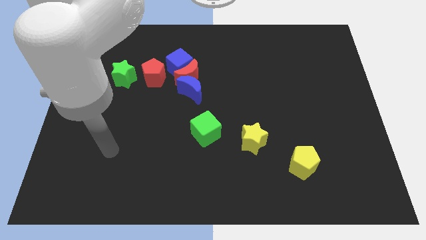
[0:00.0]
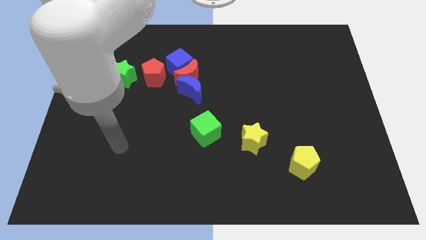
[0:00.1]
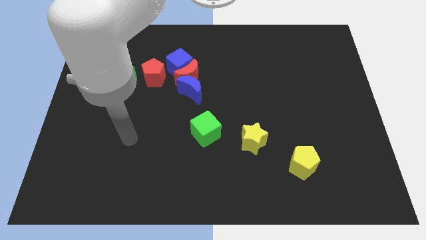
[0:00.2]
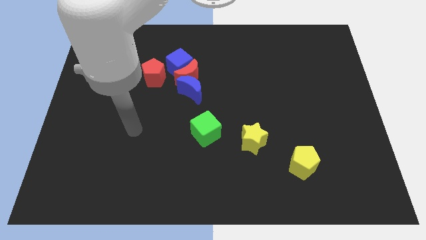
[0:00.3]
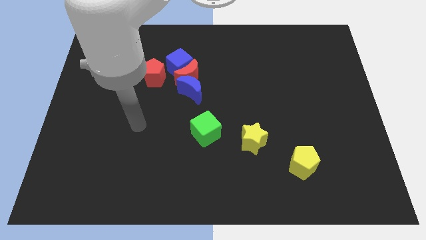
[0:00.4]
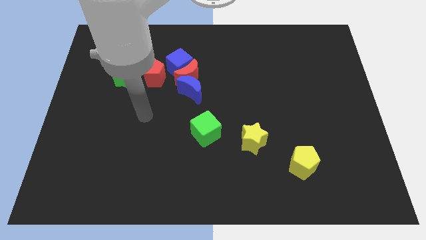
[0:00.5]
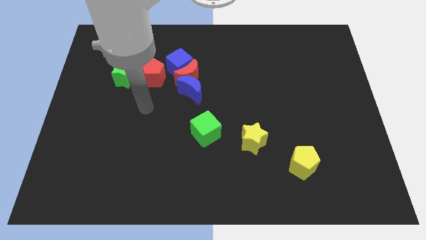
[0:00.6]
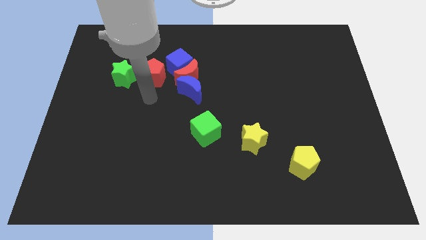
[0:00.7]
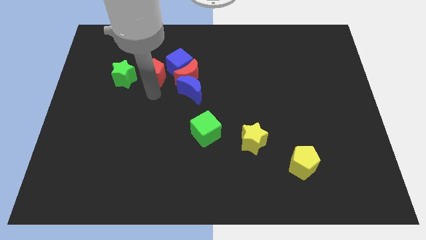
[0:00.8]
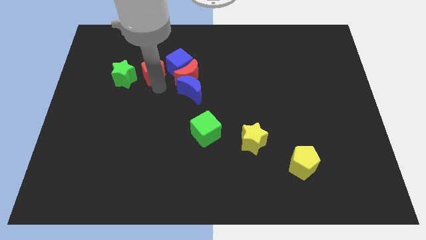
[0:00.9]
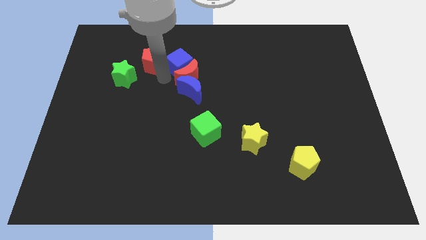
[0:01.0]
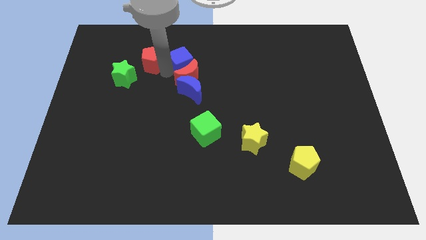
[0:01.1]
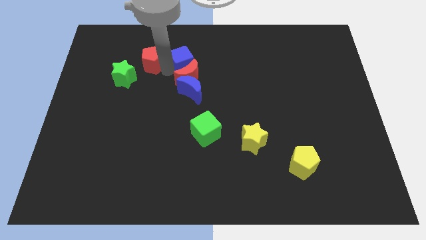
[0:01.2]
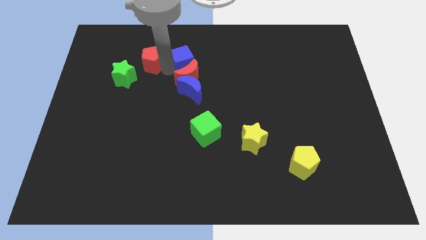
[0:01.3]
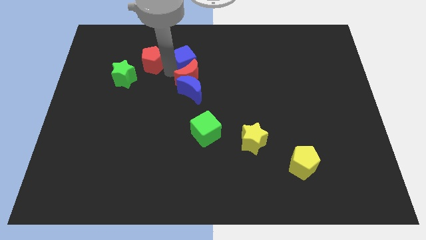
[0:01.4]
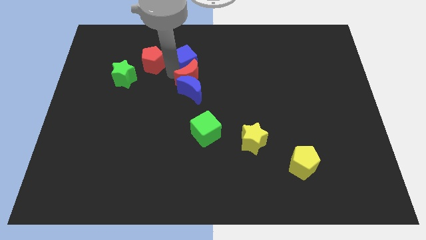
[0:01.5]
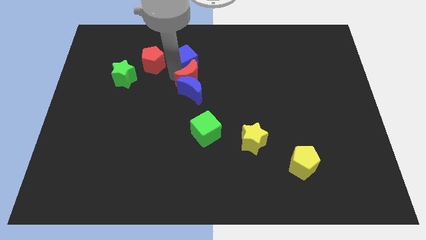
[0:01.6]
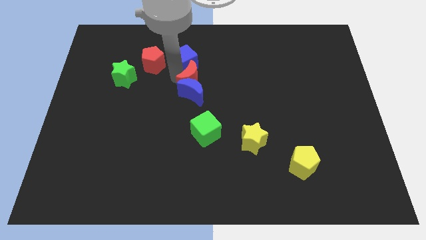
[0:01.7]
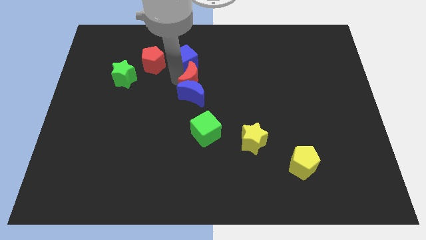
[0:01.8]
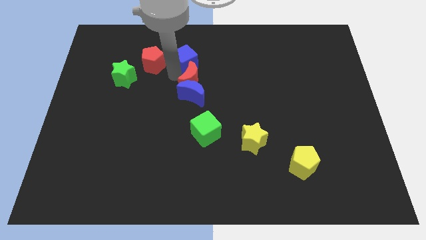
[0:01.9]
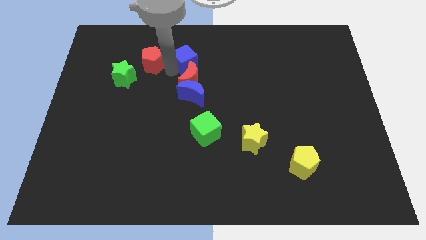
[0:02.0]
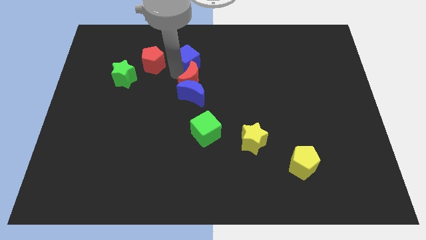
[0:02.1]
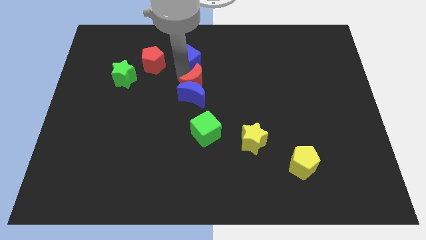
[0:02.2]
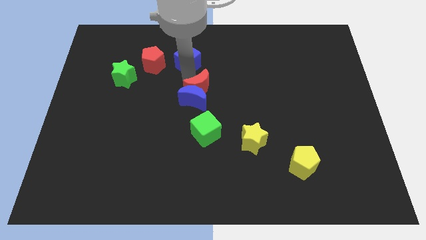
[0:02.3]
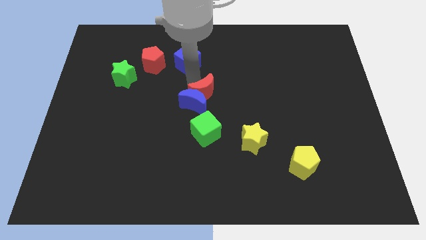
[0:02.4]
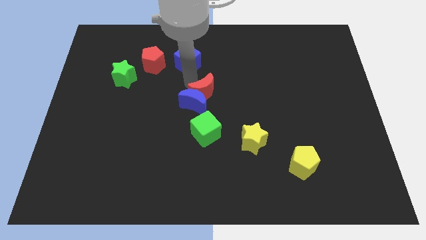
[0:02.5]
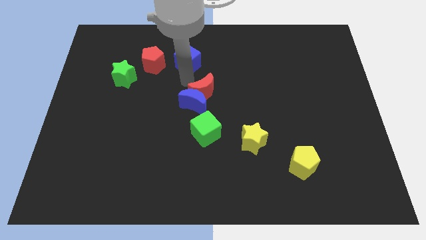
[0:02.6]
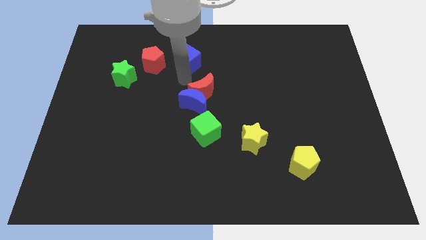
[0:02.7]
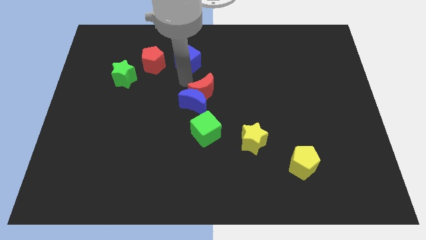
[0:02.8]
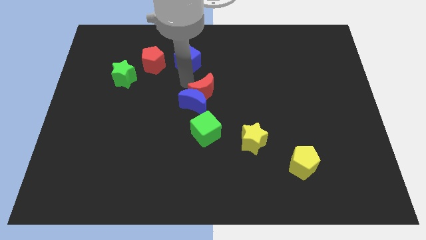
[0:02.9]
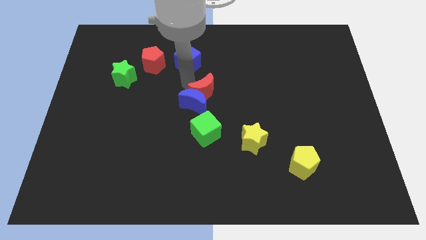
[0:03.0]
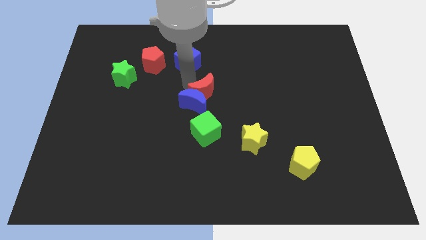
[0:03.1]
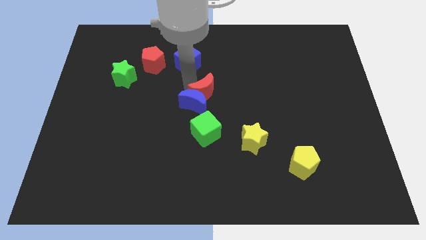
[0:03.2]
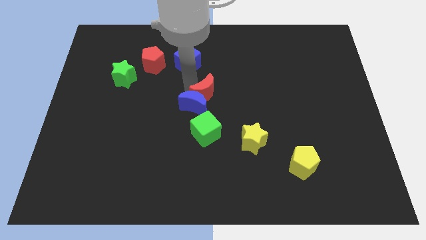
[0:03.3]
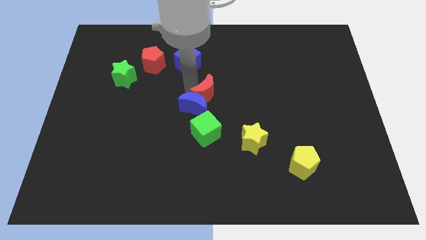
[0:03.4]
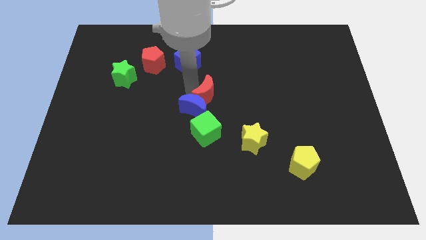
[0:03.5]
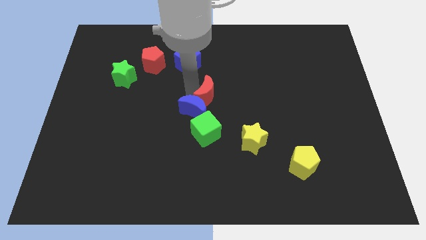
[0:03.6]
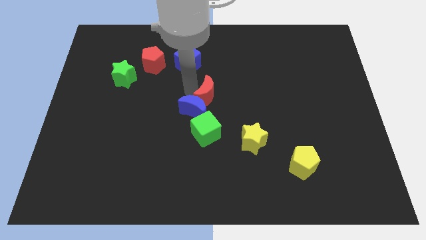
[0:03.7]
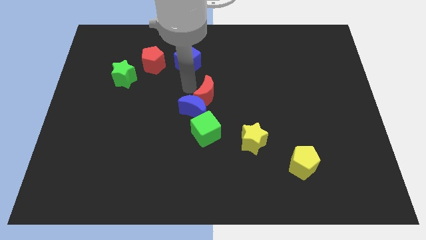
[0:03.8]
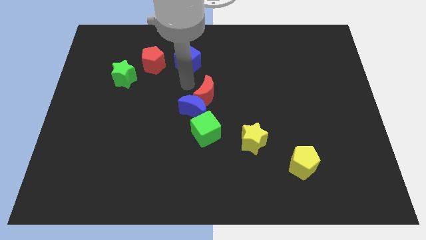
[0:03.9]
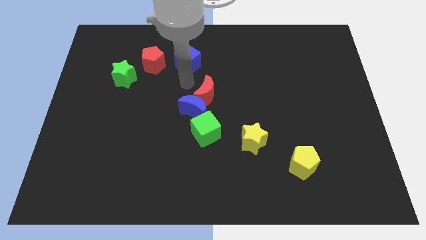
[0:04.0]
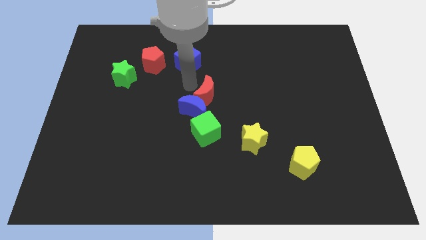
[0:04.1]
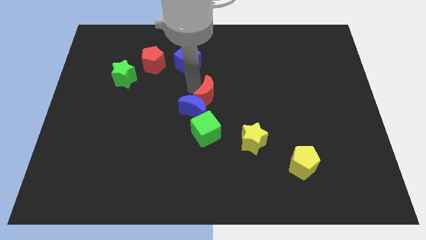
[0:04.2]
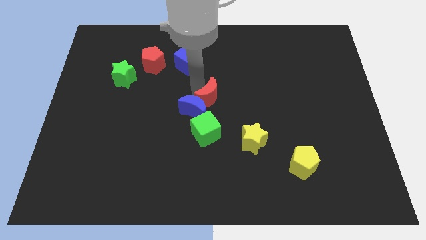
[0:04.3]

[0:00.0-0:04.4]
move the red moon away from the group of blocks

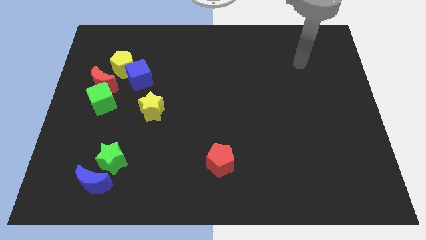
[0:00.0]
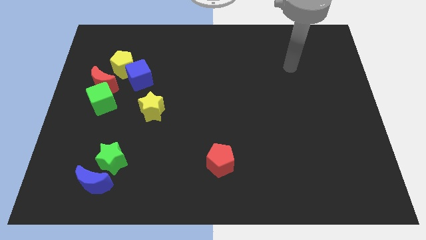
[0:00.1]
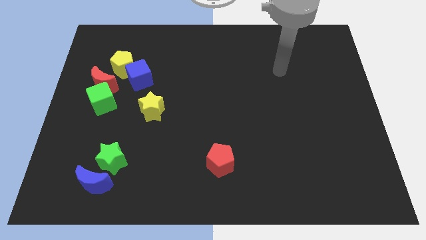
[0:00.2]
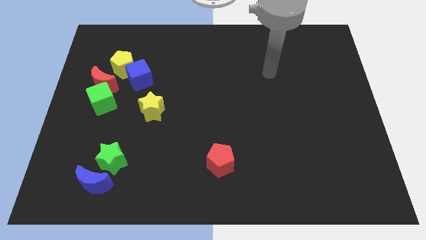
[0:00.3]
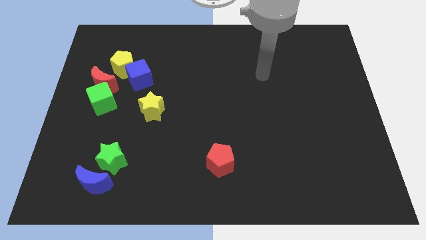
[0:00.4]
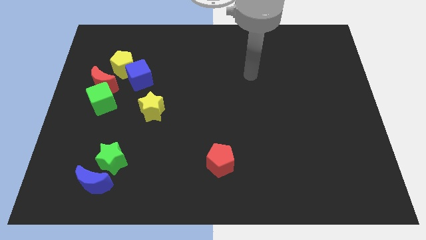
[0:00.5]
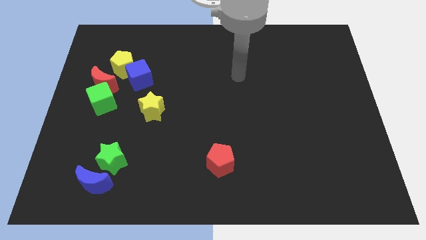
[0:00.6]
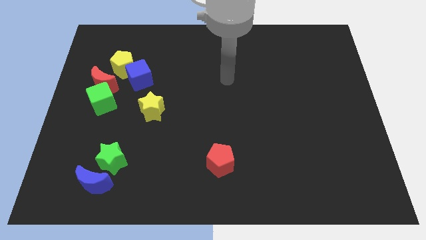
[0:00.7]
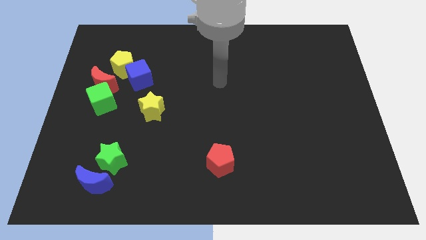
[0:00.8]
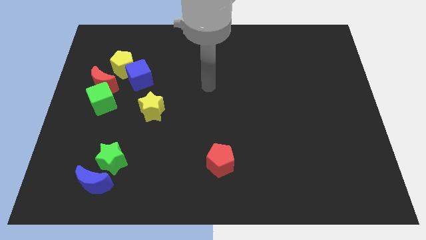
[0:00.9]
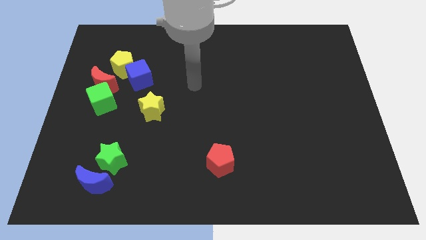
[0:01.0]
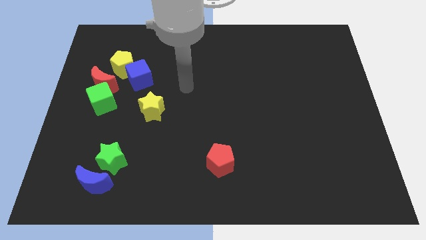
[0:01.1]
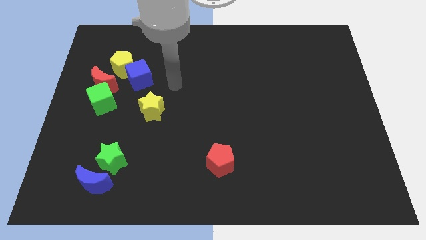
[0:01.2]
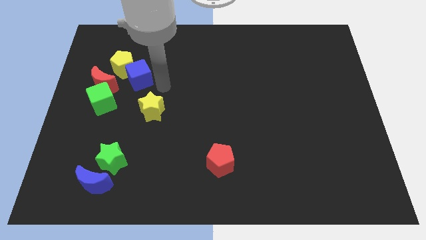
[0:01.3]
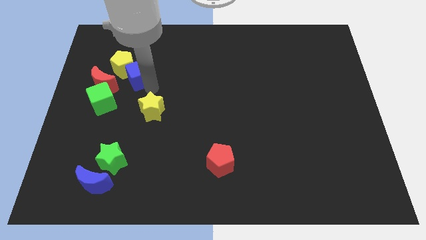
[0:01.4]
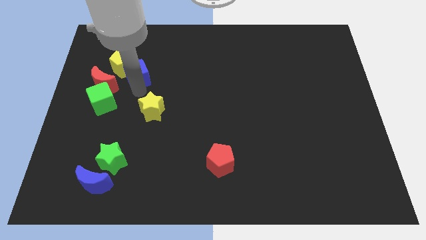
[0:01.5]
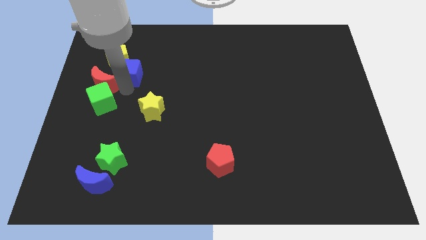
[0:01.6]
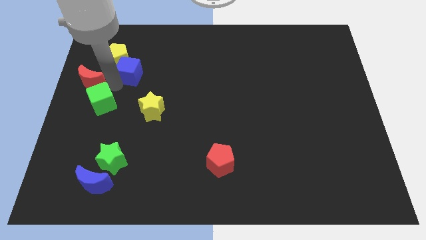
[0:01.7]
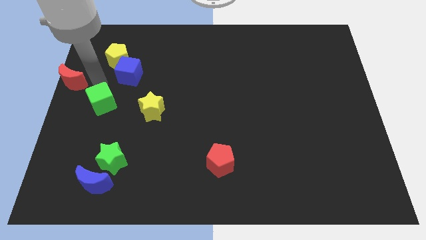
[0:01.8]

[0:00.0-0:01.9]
pull the green cube apart from the red moon

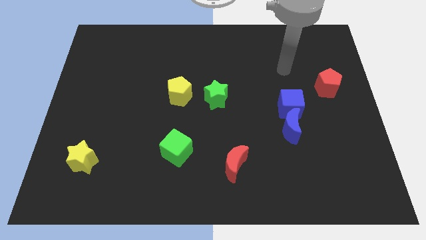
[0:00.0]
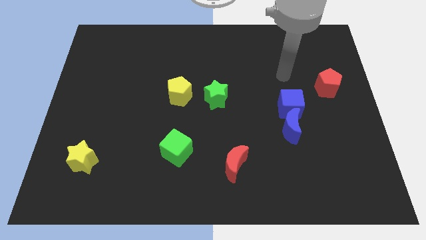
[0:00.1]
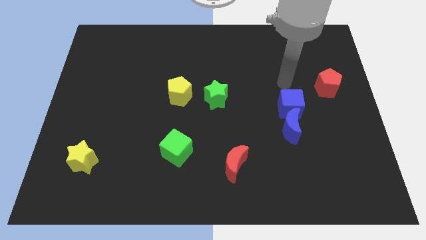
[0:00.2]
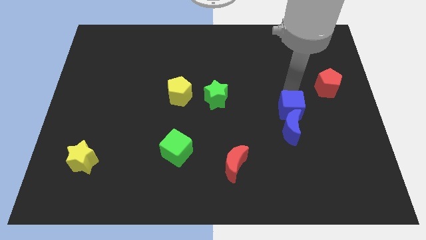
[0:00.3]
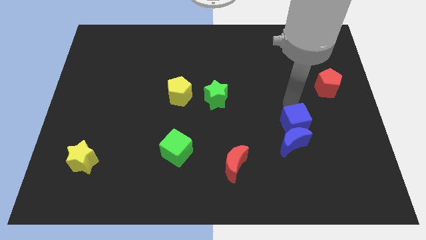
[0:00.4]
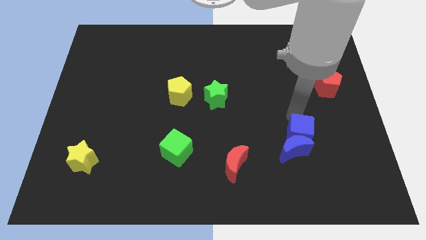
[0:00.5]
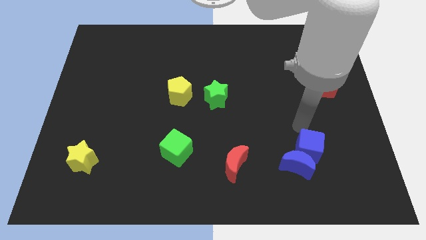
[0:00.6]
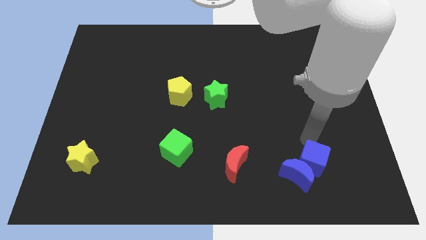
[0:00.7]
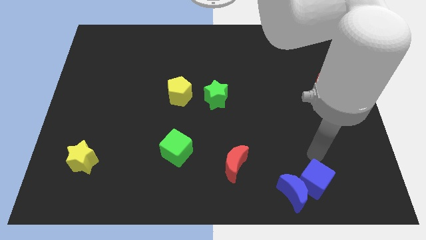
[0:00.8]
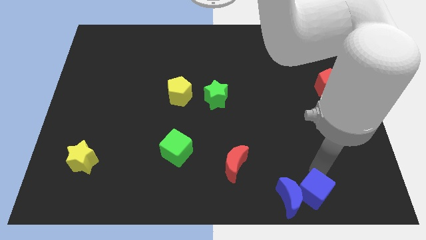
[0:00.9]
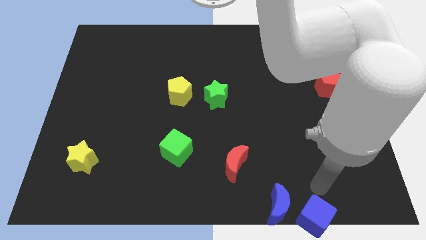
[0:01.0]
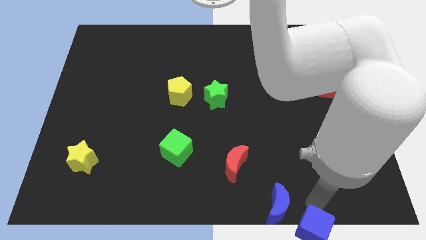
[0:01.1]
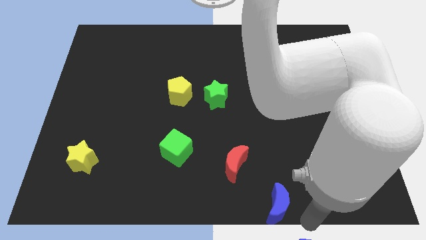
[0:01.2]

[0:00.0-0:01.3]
pull the blue moon apart from the blue cube

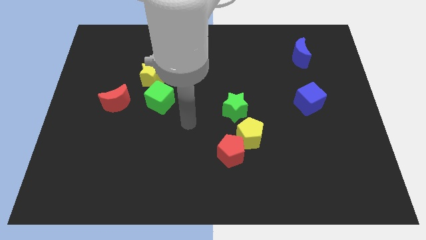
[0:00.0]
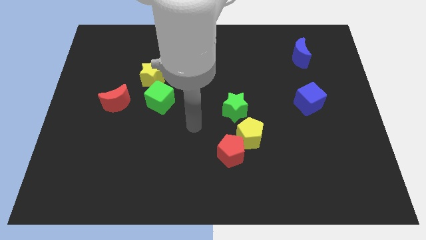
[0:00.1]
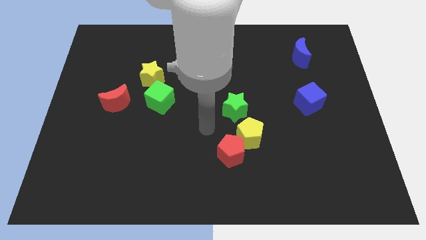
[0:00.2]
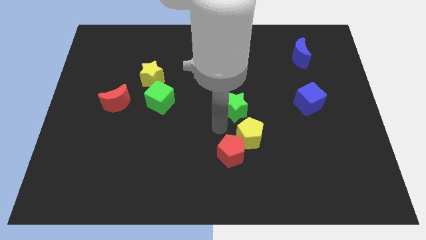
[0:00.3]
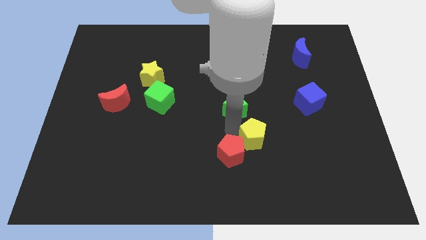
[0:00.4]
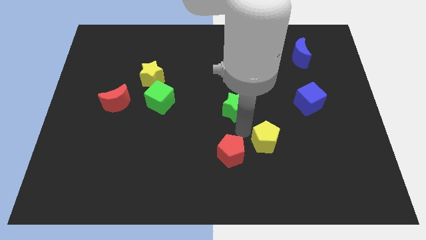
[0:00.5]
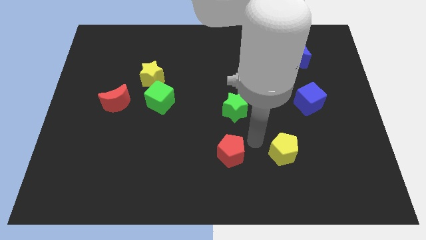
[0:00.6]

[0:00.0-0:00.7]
pull the red pentagon apart from the yellow pentagon

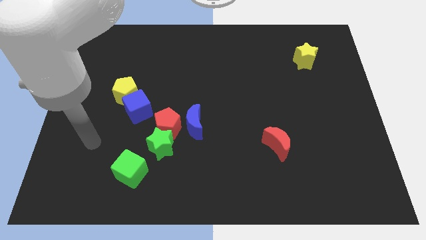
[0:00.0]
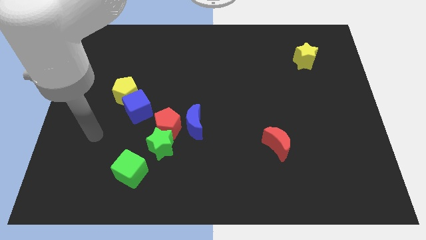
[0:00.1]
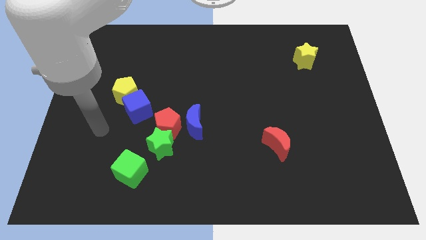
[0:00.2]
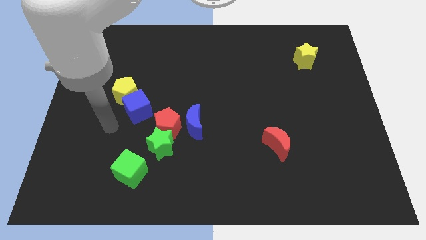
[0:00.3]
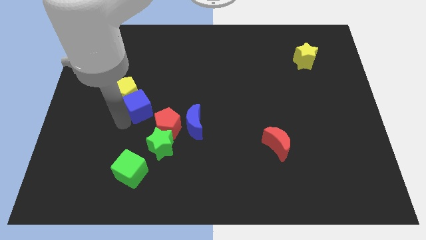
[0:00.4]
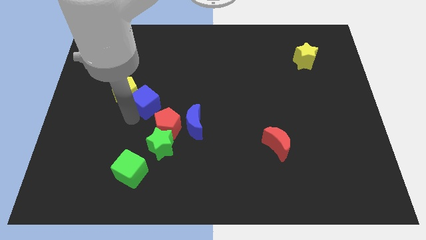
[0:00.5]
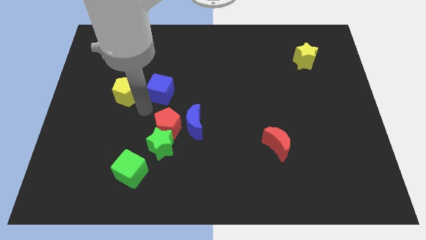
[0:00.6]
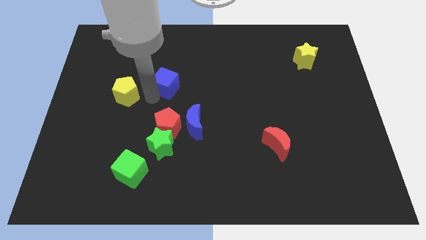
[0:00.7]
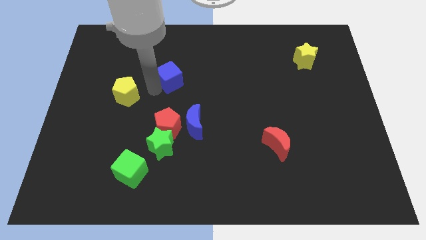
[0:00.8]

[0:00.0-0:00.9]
pull the yellow pentagon apart from the blue cube
